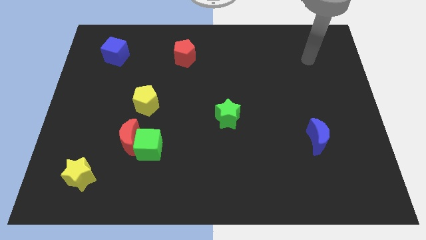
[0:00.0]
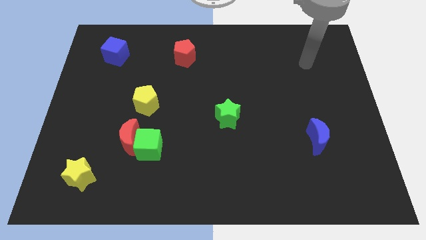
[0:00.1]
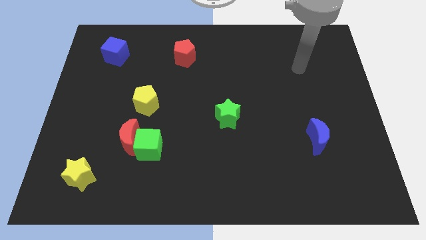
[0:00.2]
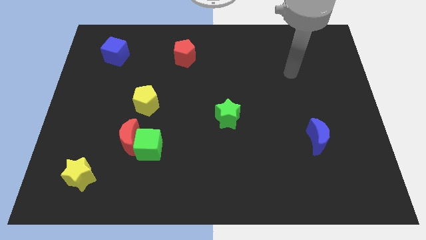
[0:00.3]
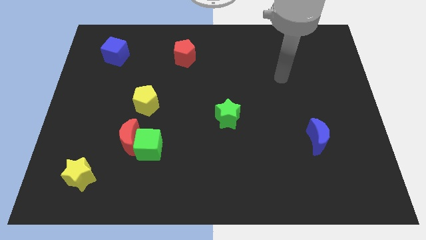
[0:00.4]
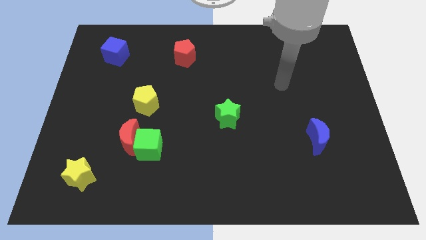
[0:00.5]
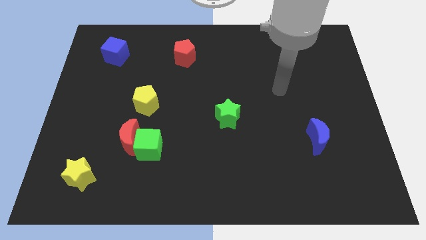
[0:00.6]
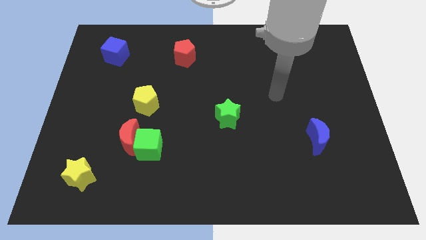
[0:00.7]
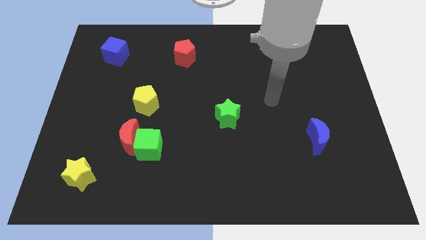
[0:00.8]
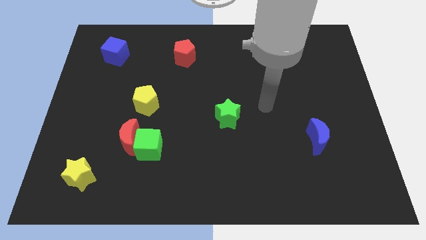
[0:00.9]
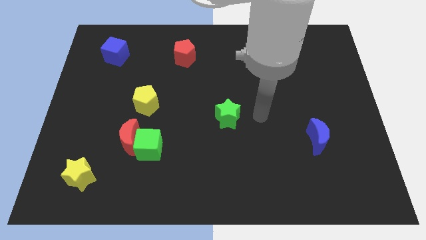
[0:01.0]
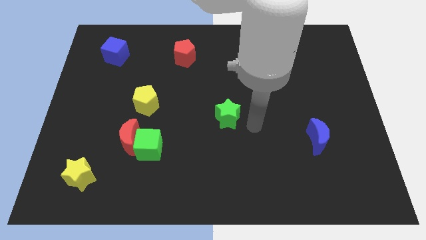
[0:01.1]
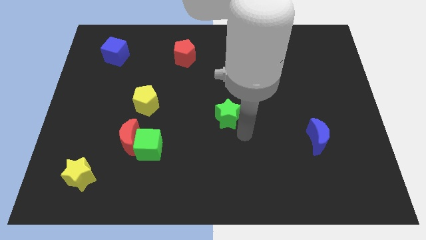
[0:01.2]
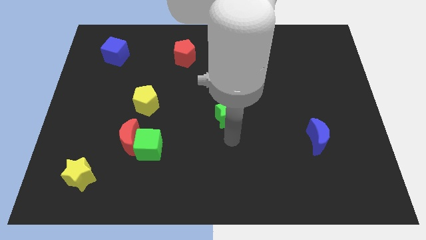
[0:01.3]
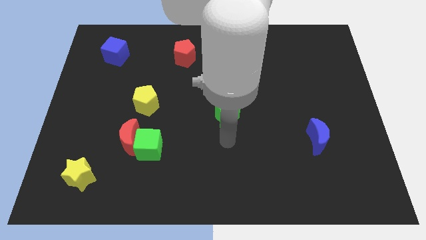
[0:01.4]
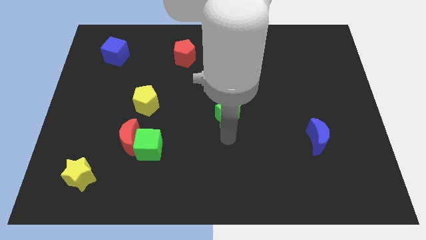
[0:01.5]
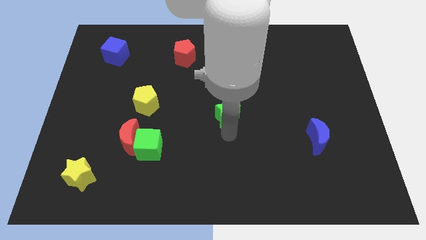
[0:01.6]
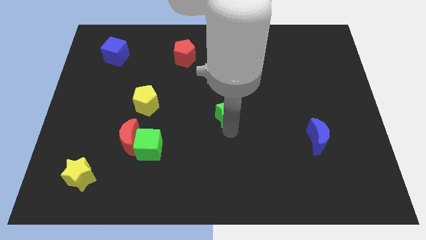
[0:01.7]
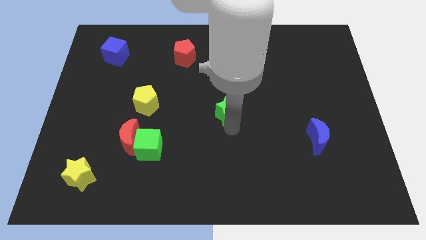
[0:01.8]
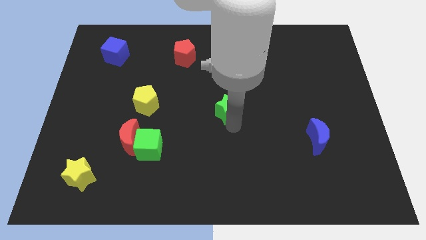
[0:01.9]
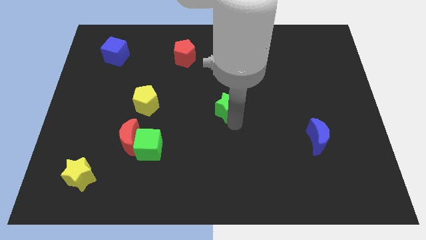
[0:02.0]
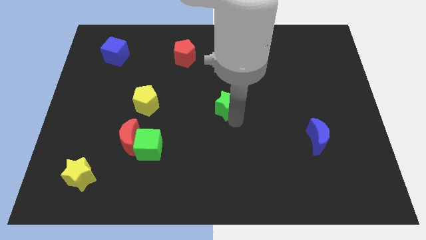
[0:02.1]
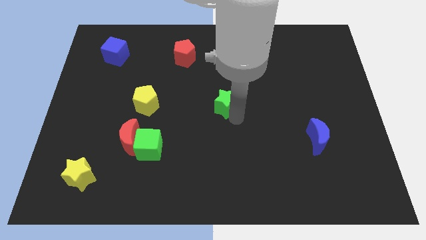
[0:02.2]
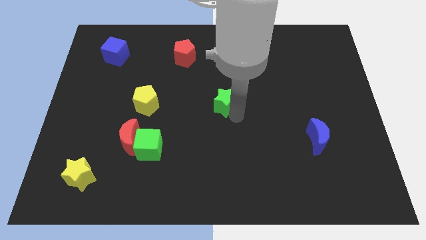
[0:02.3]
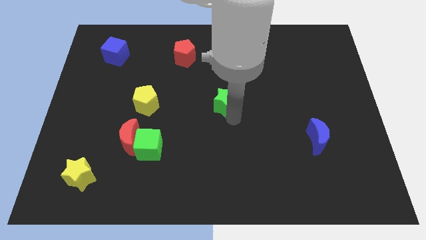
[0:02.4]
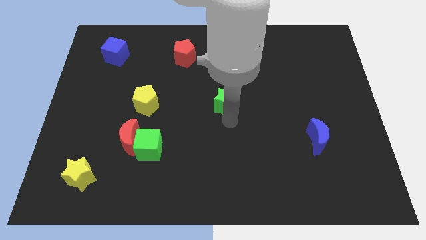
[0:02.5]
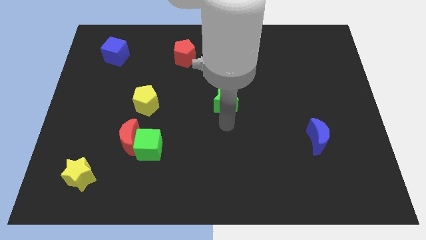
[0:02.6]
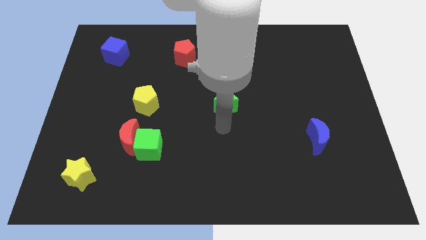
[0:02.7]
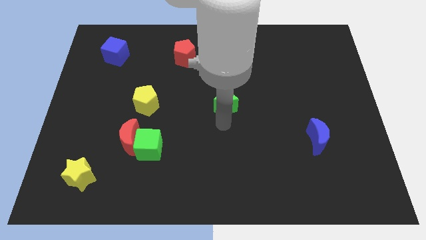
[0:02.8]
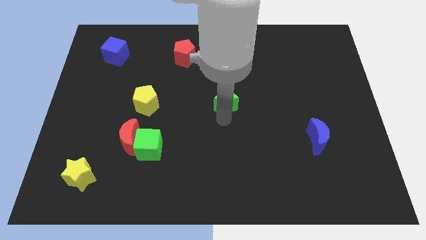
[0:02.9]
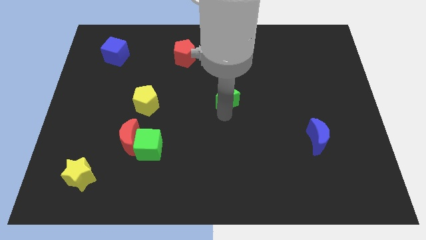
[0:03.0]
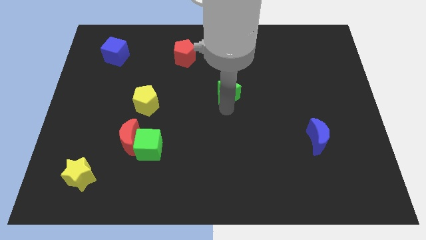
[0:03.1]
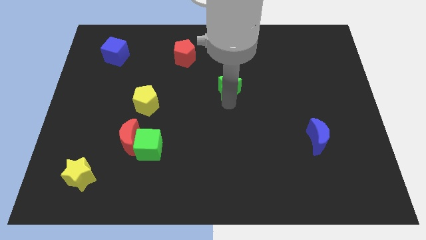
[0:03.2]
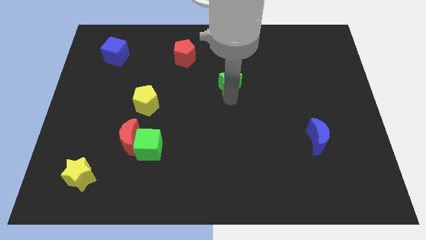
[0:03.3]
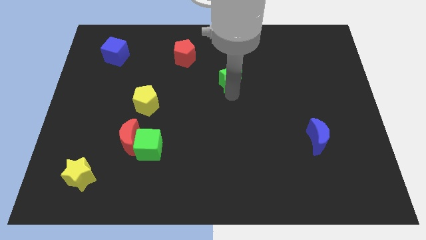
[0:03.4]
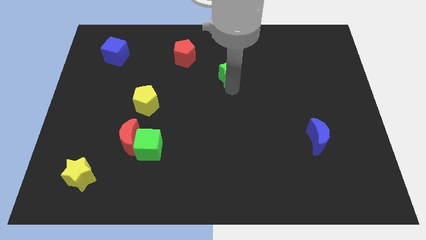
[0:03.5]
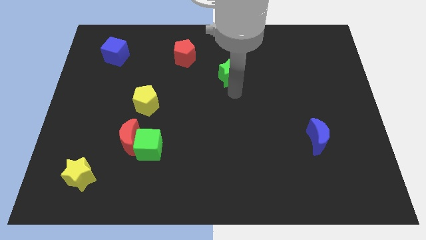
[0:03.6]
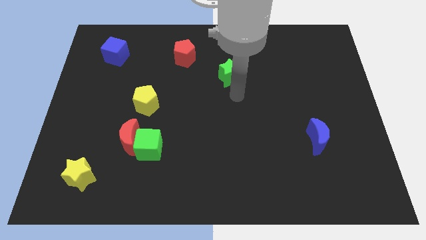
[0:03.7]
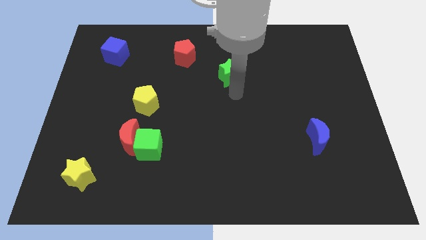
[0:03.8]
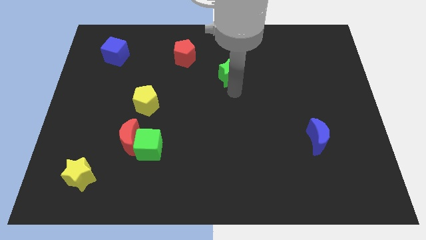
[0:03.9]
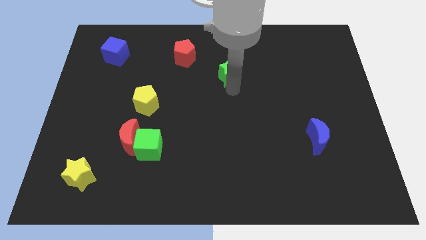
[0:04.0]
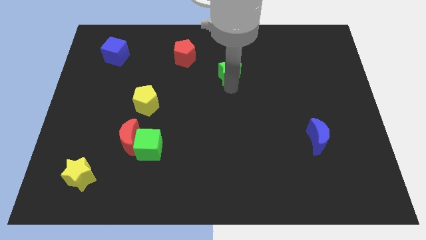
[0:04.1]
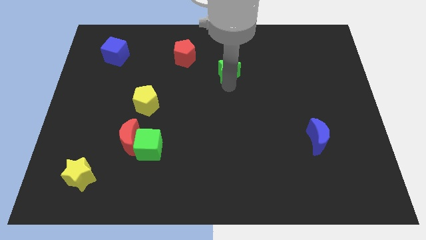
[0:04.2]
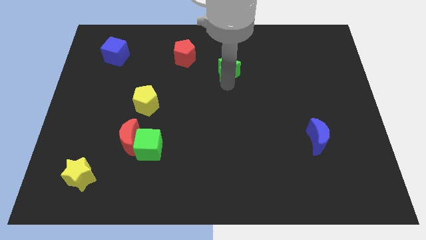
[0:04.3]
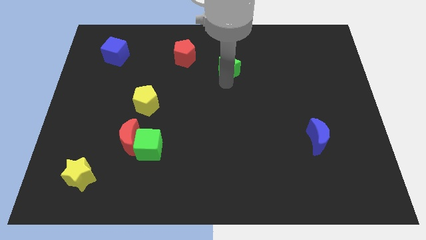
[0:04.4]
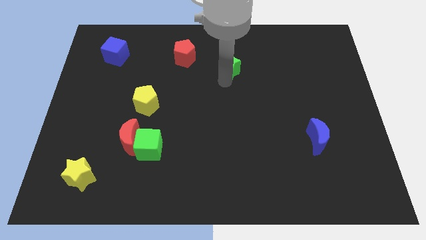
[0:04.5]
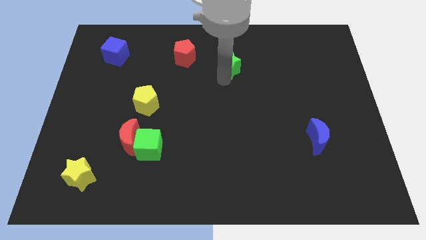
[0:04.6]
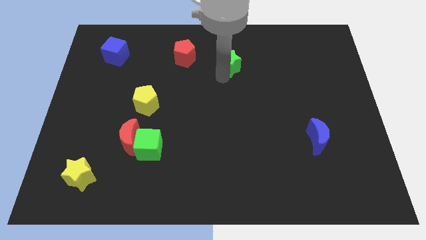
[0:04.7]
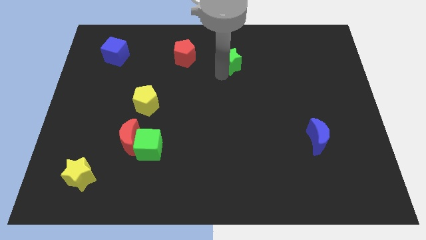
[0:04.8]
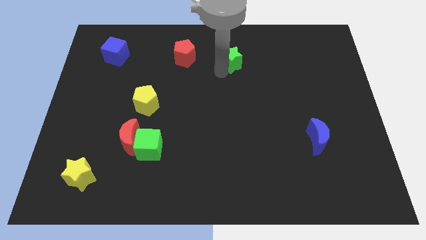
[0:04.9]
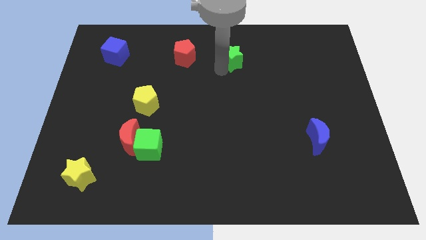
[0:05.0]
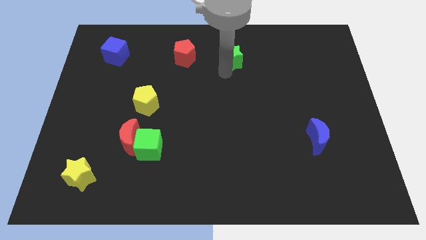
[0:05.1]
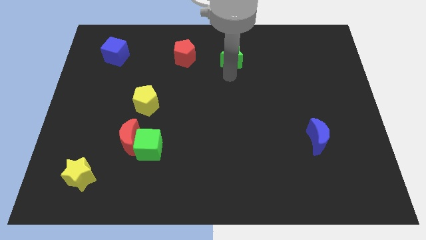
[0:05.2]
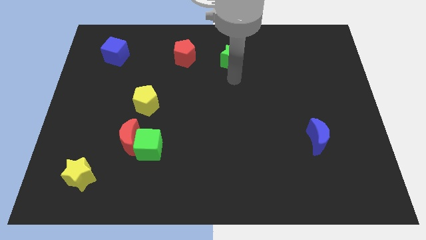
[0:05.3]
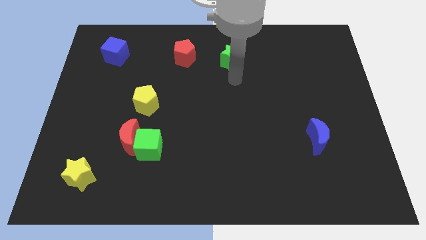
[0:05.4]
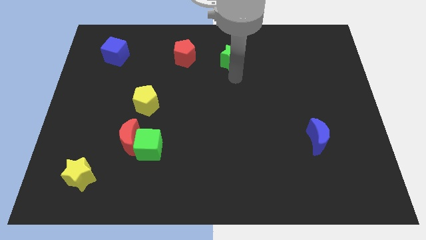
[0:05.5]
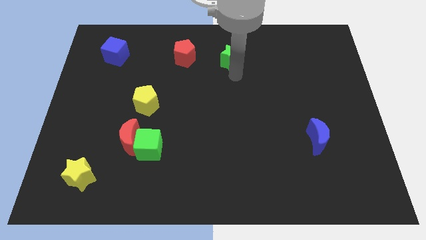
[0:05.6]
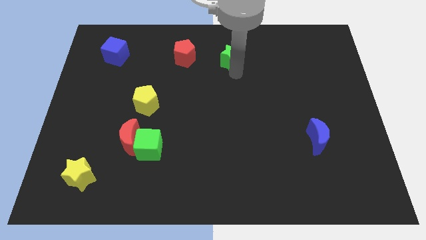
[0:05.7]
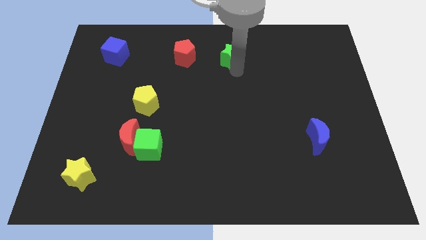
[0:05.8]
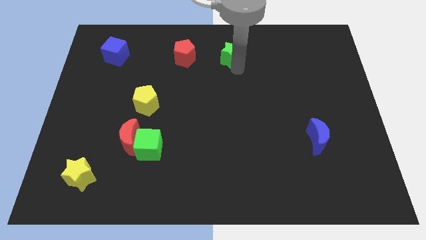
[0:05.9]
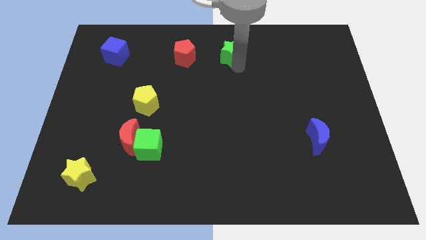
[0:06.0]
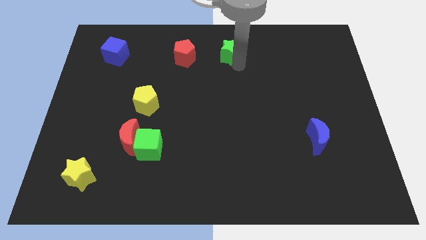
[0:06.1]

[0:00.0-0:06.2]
slide the green star to the towards your base
